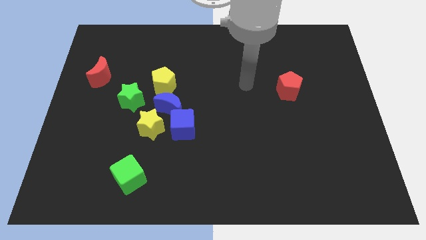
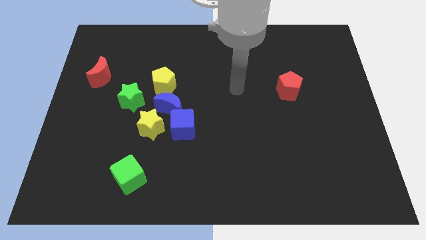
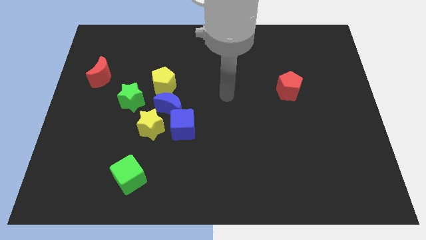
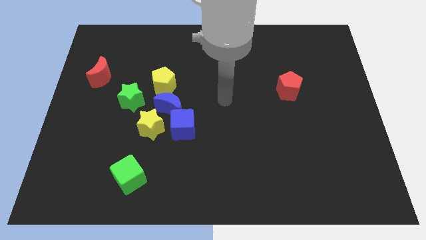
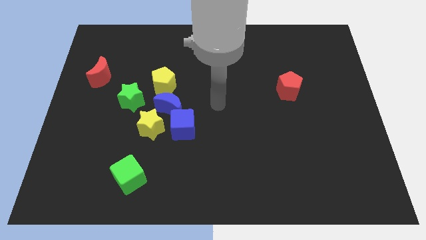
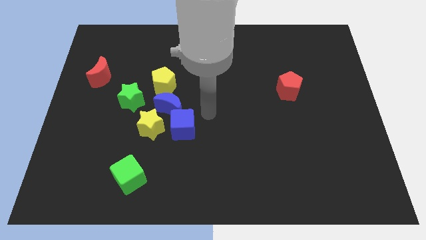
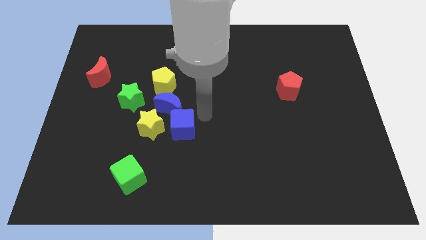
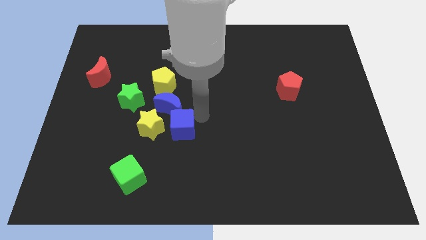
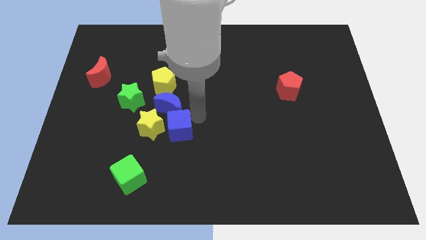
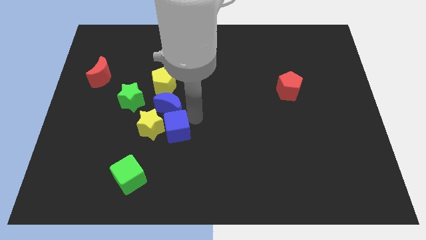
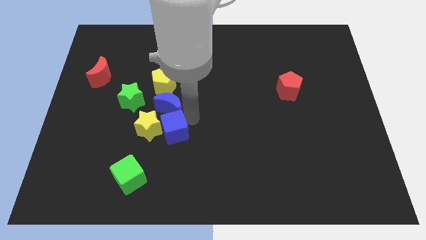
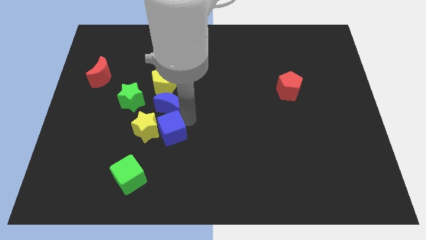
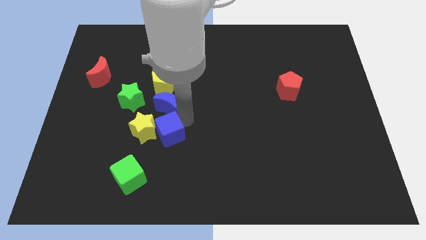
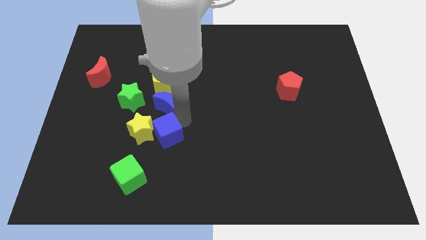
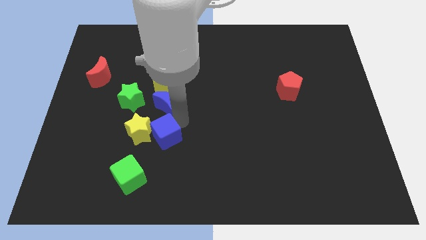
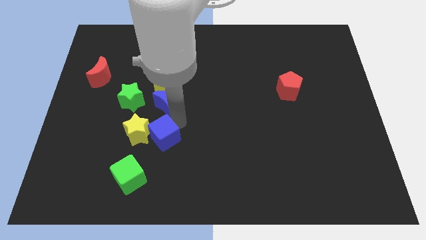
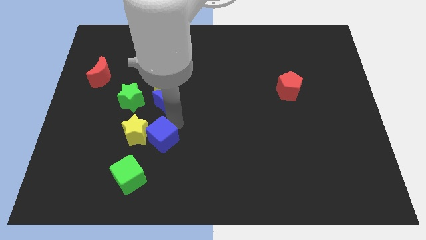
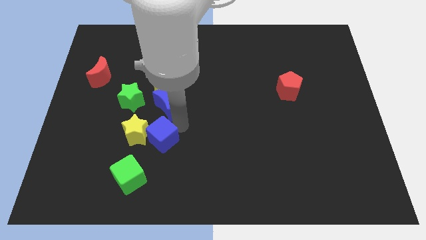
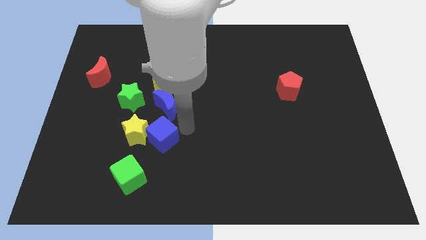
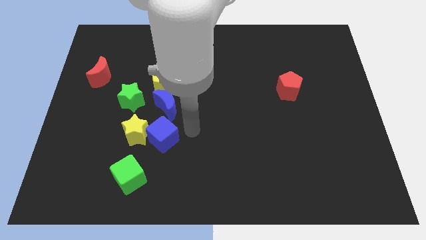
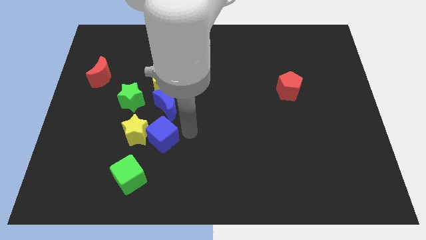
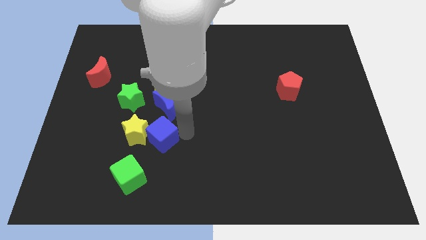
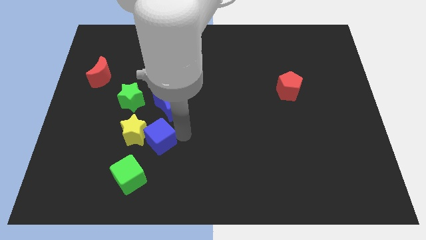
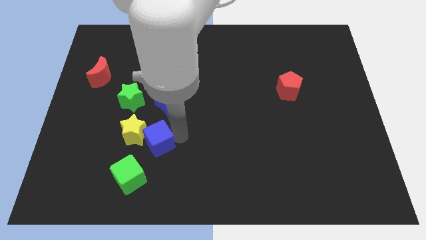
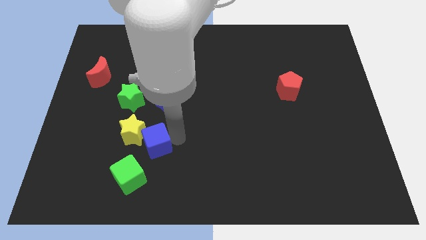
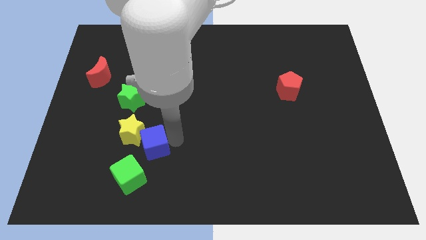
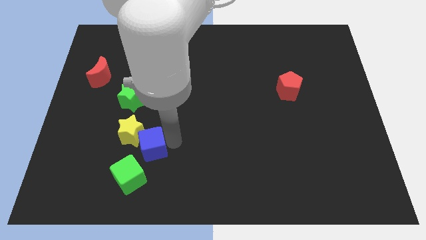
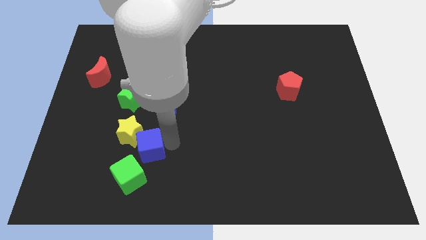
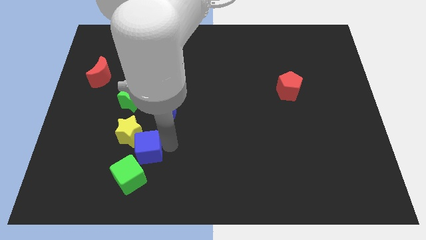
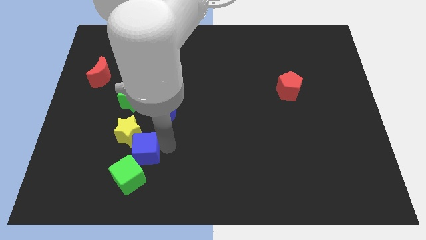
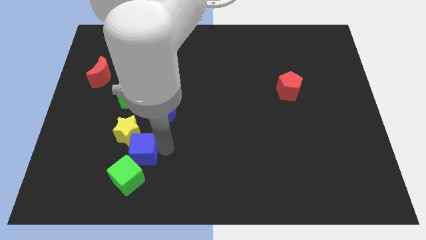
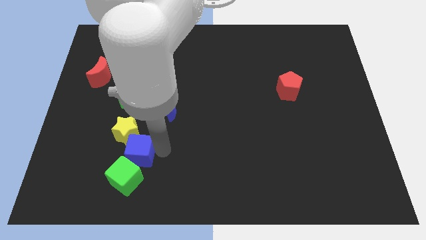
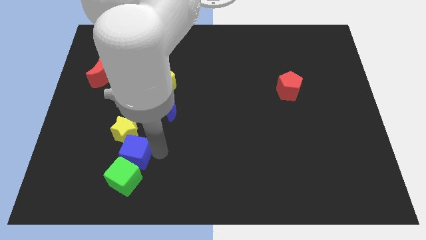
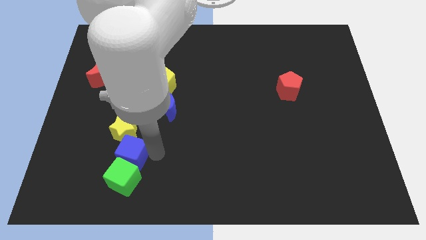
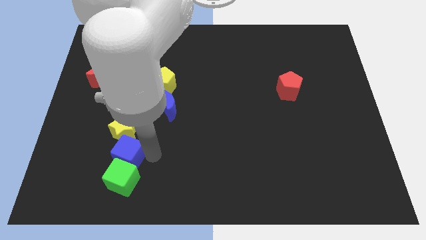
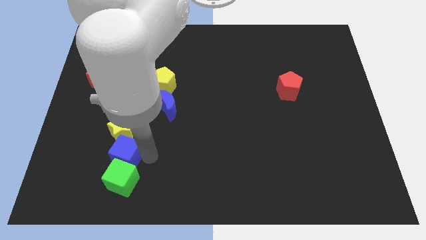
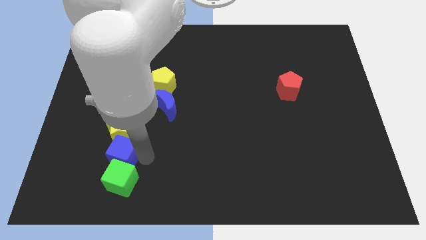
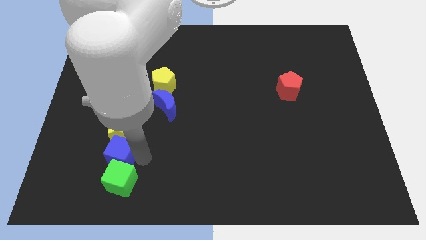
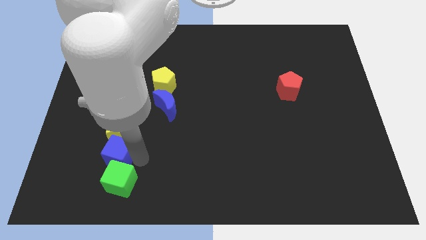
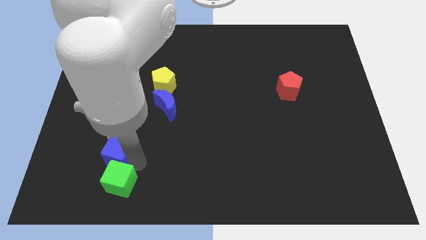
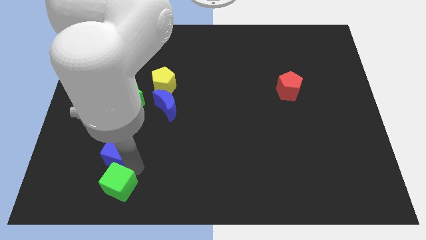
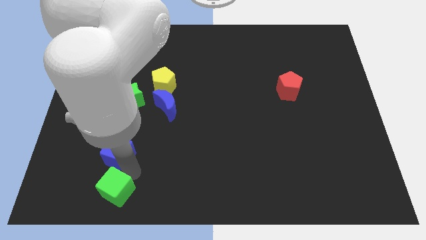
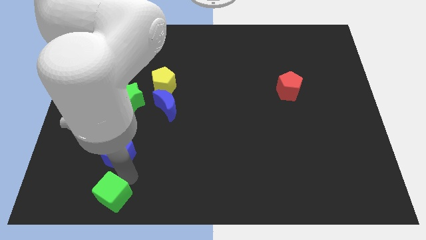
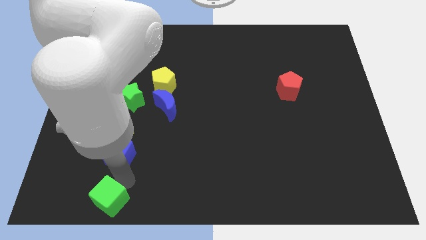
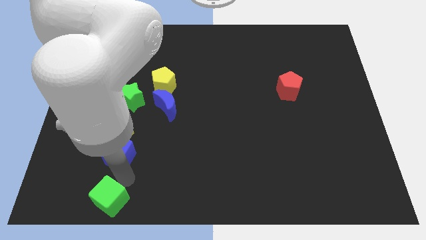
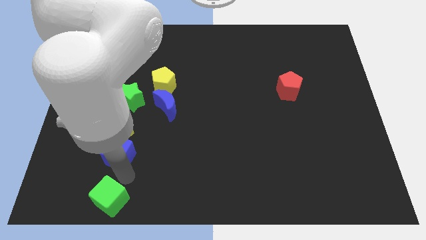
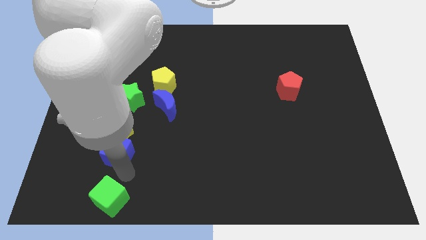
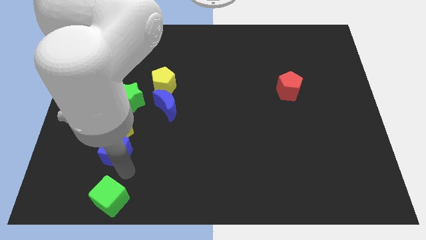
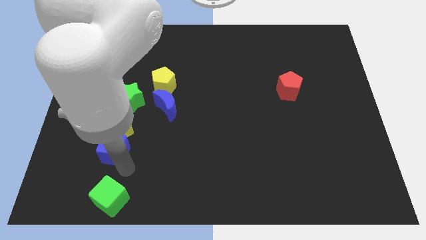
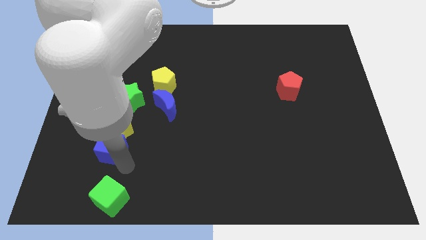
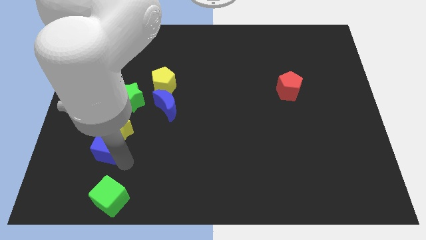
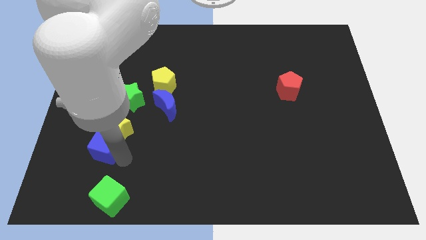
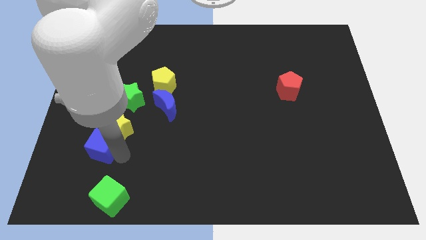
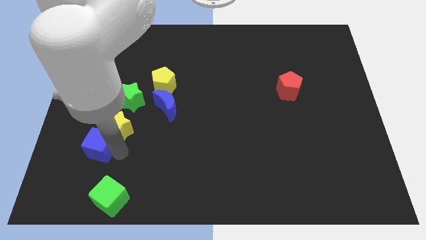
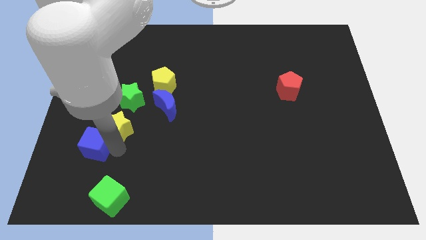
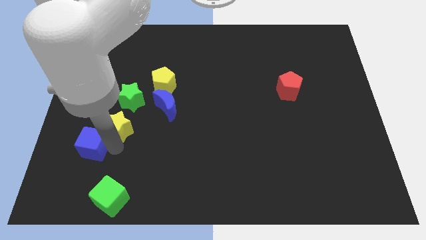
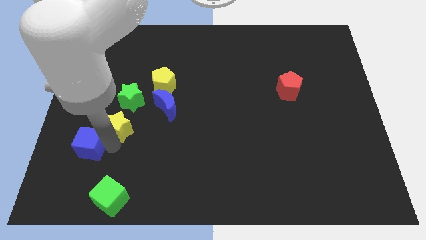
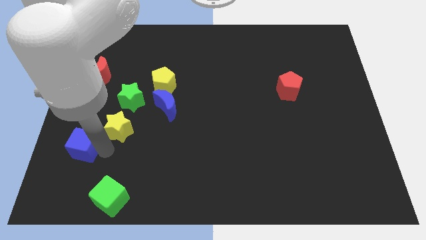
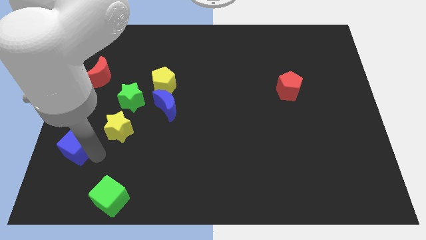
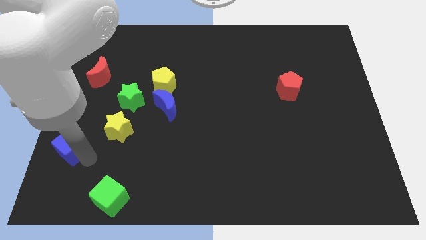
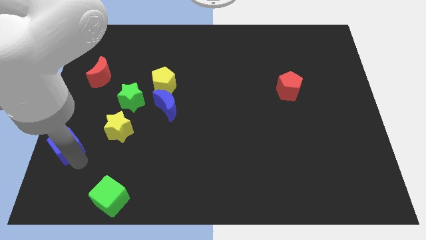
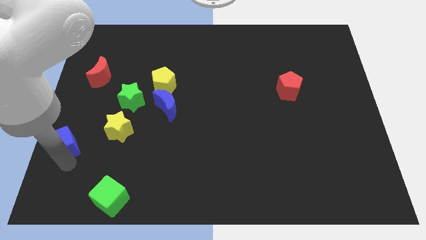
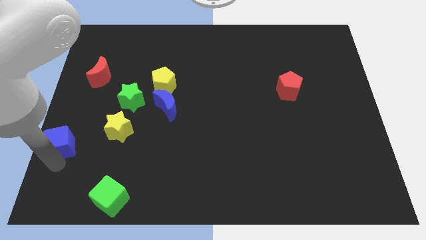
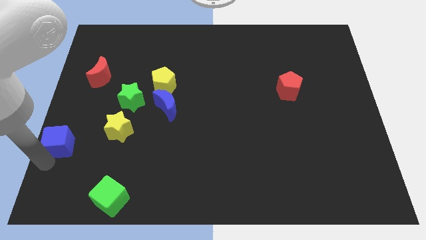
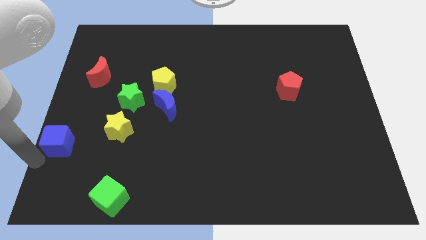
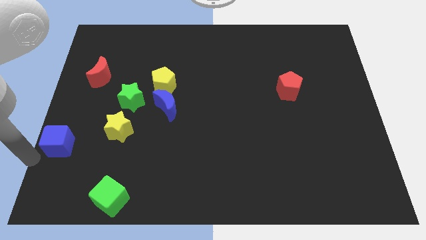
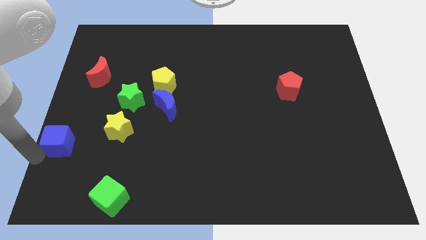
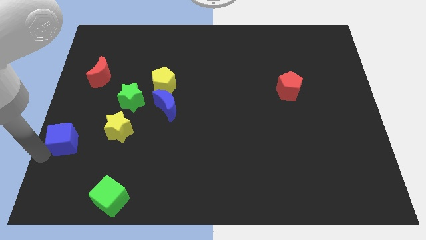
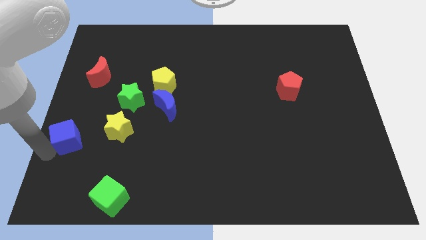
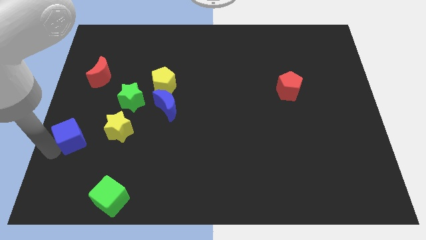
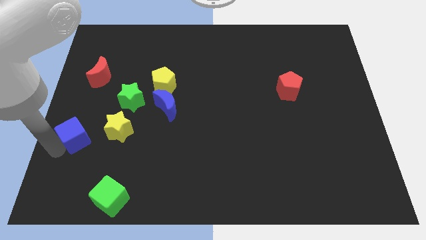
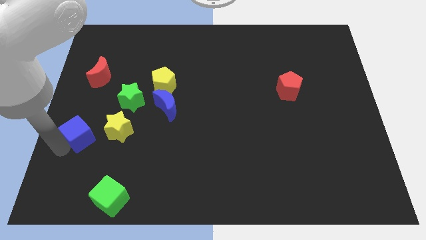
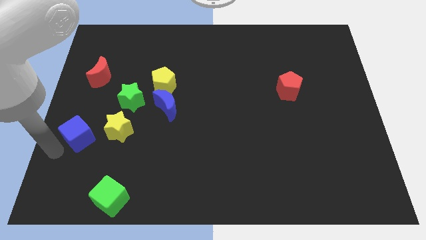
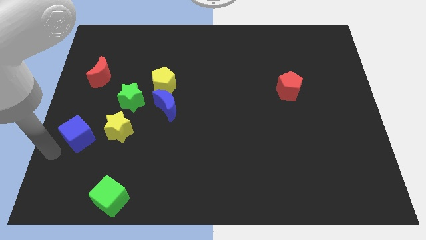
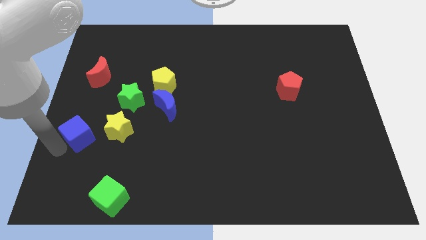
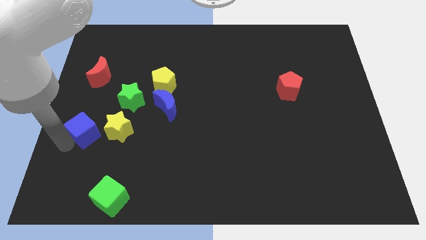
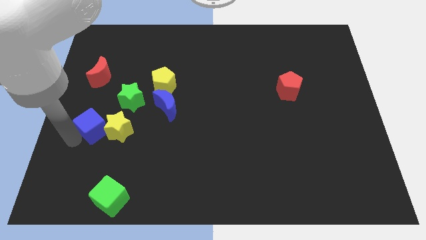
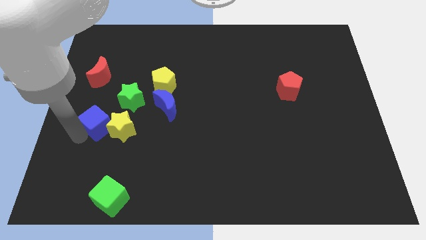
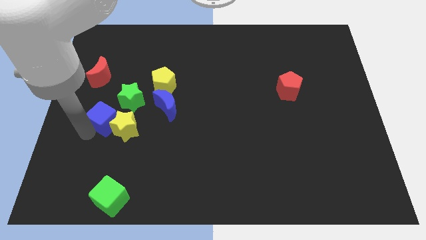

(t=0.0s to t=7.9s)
slide the blue cube upwards and to the left somewhat
